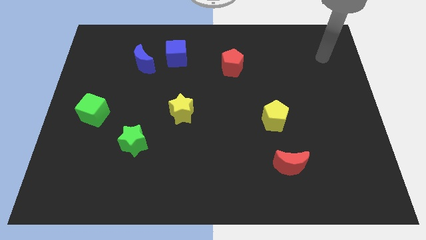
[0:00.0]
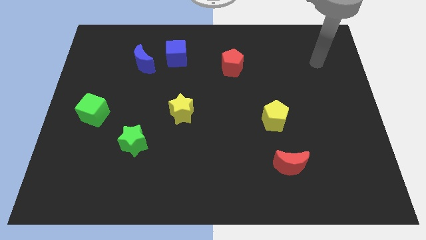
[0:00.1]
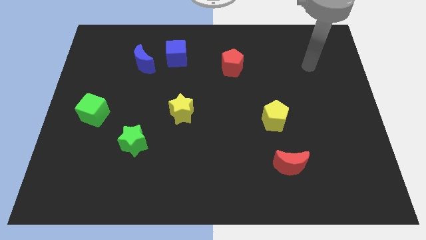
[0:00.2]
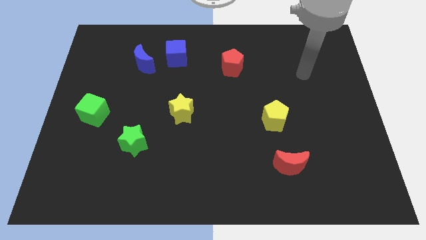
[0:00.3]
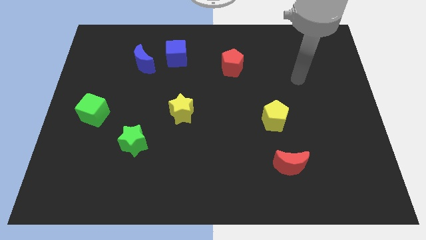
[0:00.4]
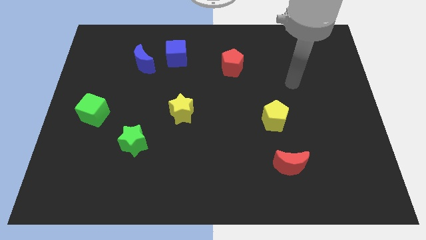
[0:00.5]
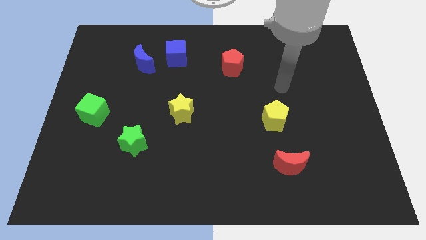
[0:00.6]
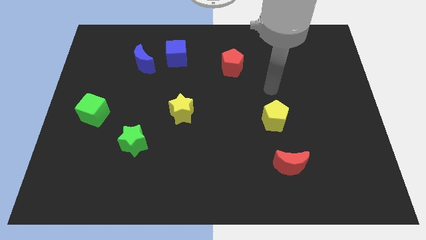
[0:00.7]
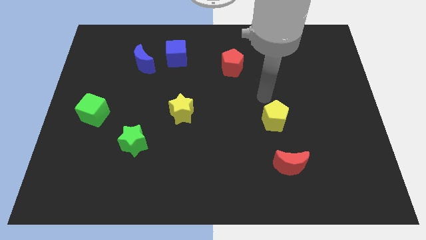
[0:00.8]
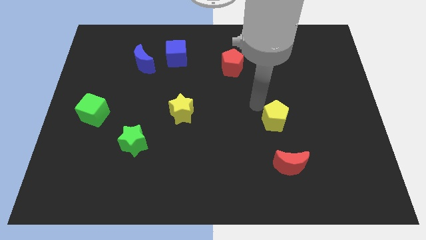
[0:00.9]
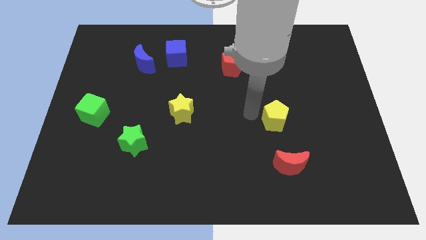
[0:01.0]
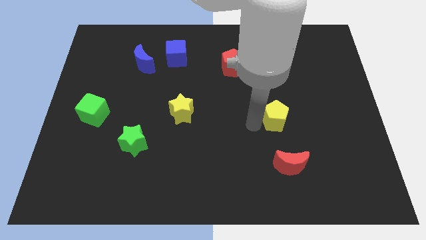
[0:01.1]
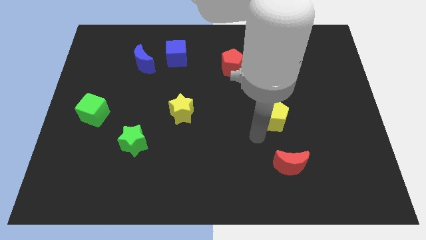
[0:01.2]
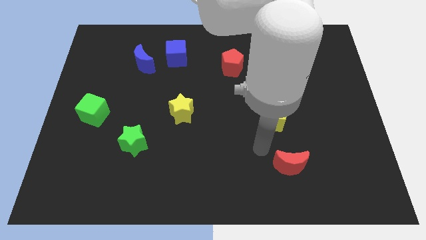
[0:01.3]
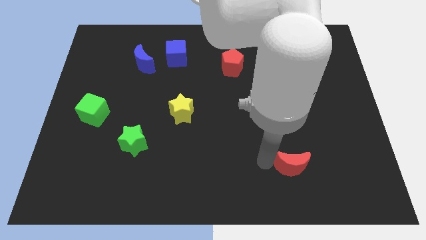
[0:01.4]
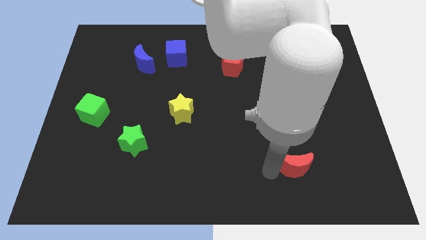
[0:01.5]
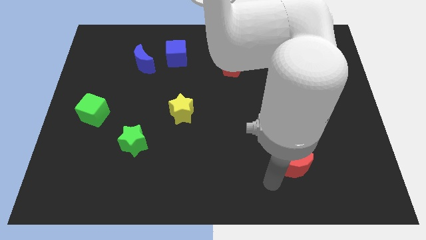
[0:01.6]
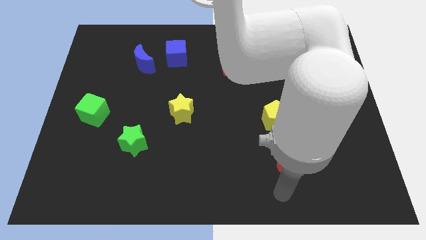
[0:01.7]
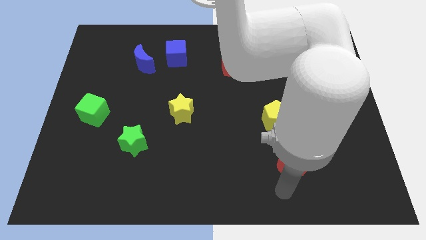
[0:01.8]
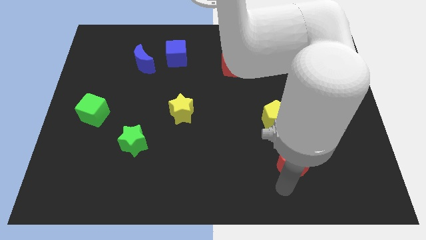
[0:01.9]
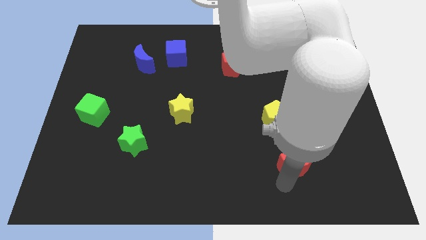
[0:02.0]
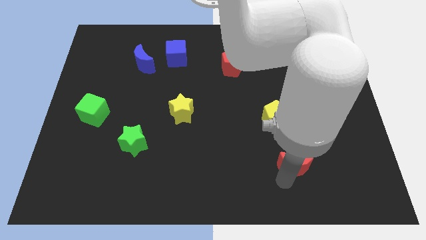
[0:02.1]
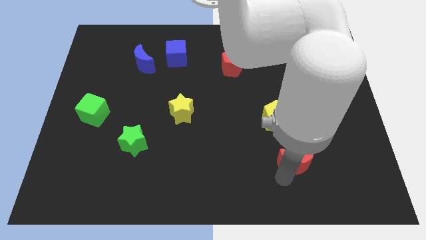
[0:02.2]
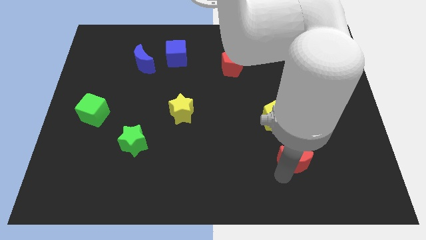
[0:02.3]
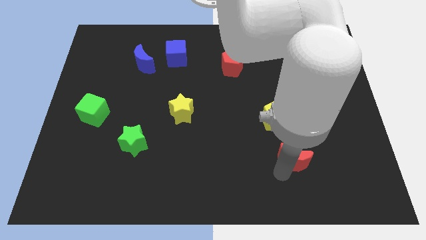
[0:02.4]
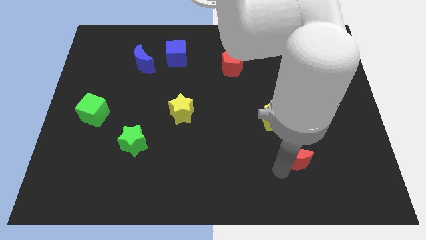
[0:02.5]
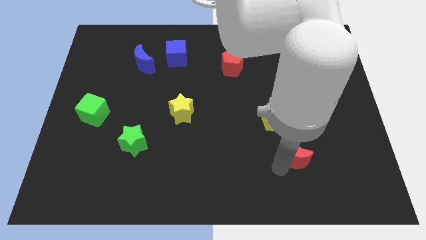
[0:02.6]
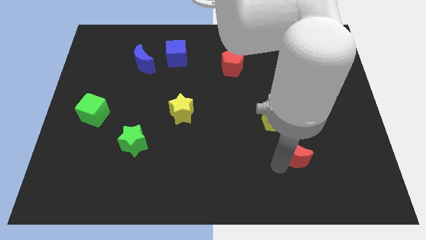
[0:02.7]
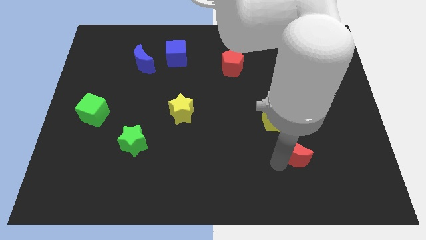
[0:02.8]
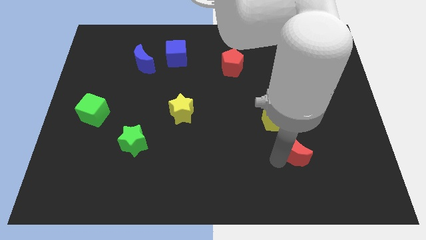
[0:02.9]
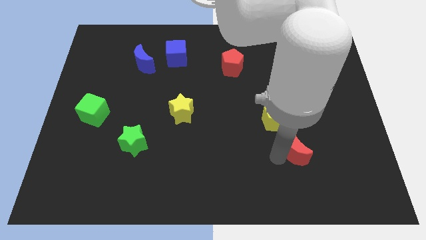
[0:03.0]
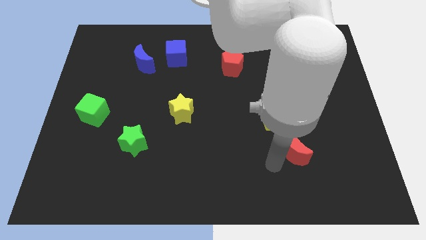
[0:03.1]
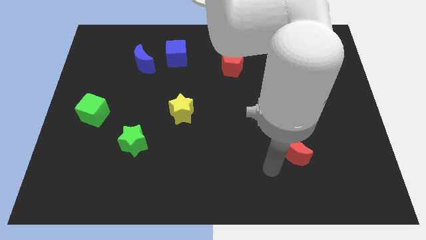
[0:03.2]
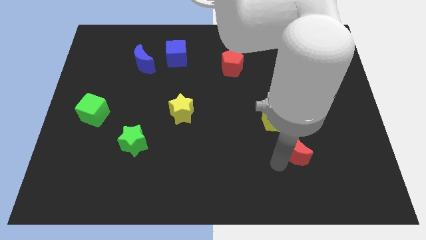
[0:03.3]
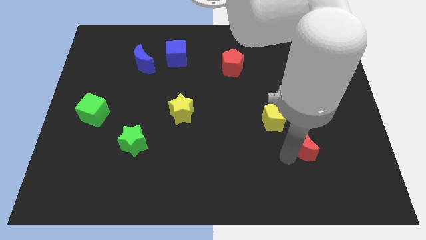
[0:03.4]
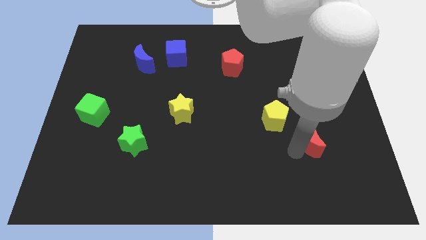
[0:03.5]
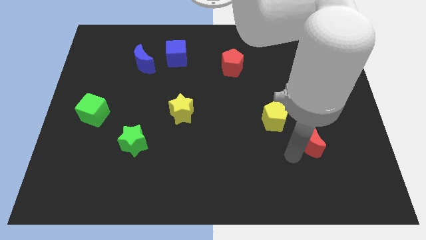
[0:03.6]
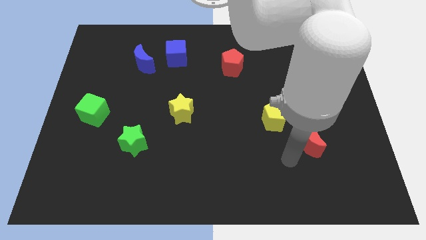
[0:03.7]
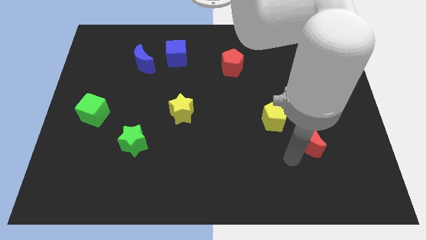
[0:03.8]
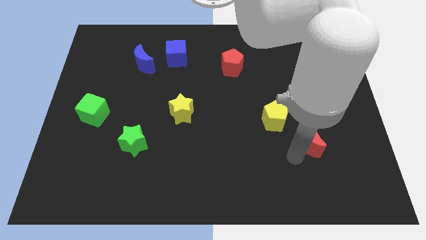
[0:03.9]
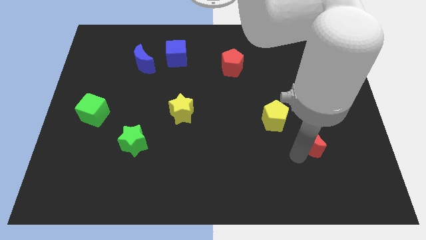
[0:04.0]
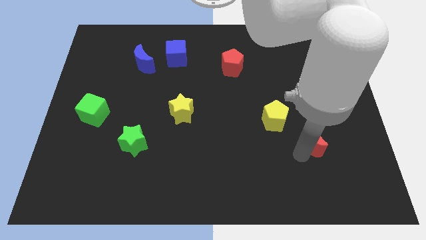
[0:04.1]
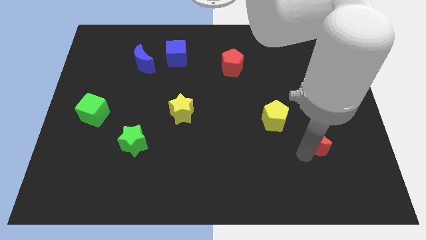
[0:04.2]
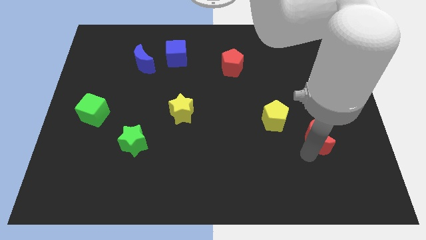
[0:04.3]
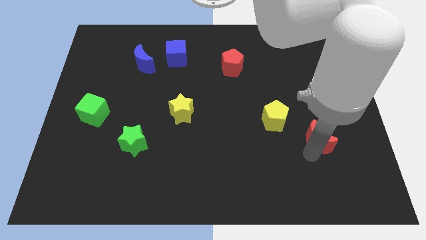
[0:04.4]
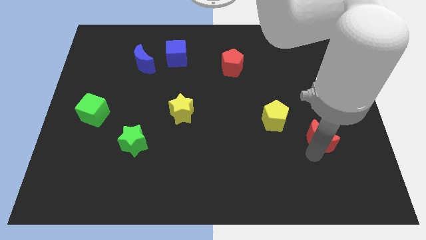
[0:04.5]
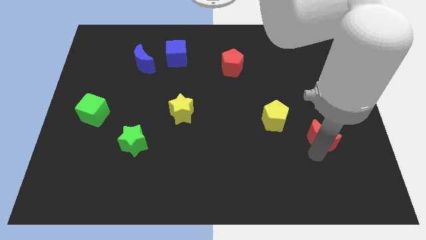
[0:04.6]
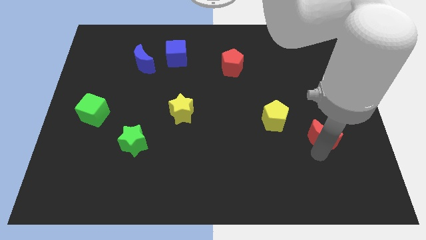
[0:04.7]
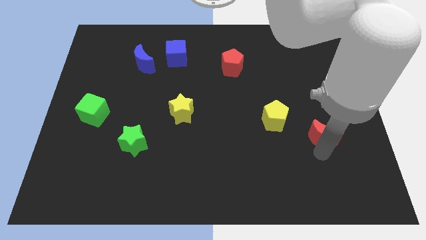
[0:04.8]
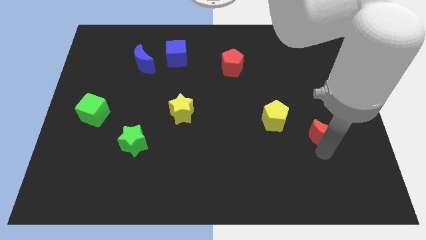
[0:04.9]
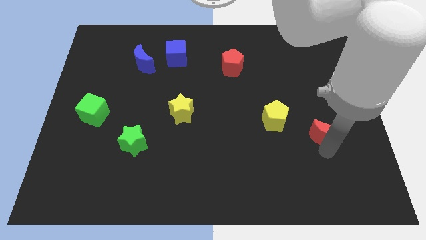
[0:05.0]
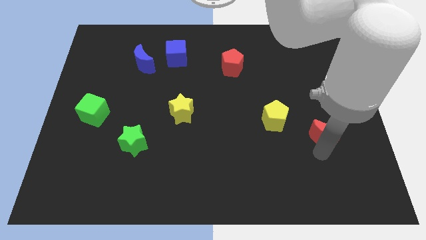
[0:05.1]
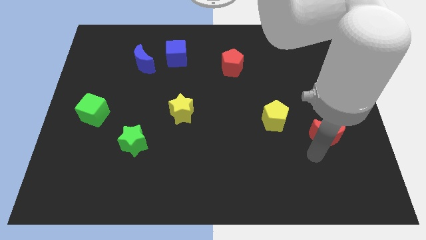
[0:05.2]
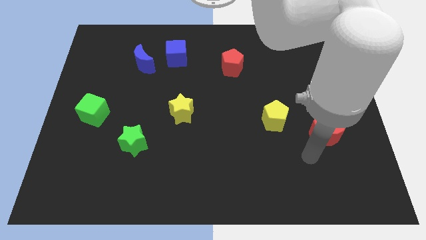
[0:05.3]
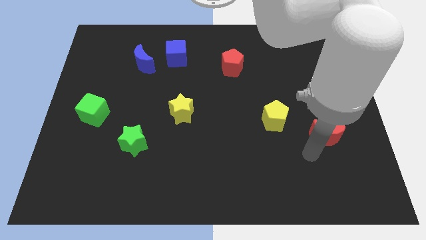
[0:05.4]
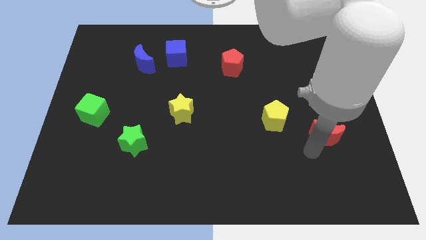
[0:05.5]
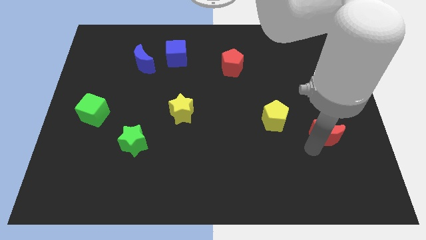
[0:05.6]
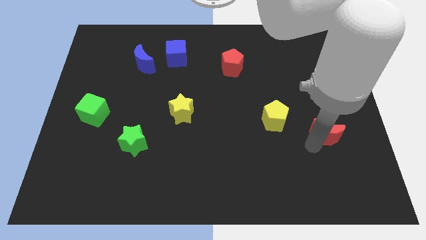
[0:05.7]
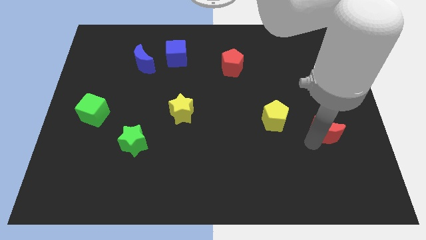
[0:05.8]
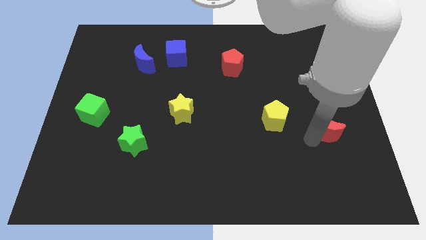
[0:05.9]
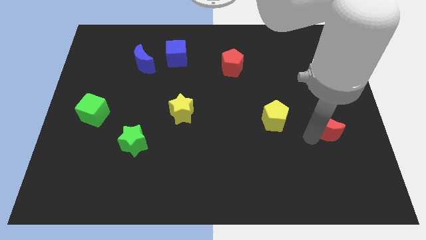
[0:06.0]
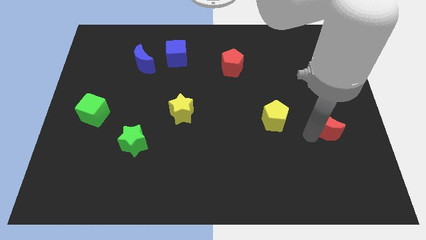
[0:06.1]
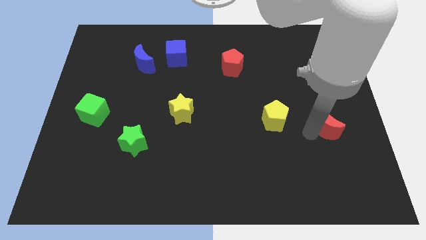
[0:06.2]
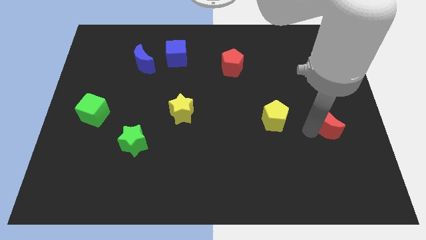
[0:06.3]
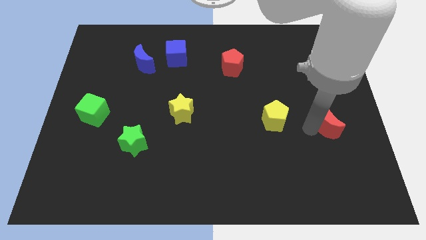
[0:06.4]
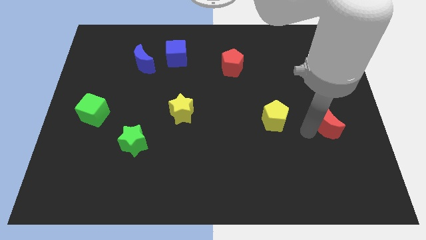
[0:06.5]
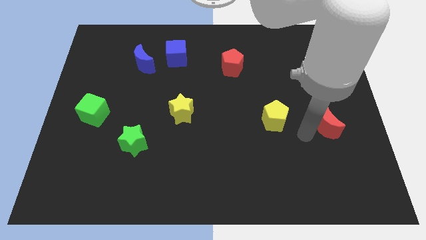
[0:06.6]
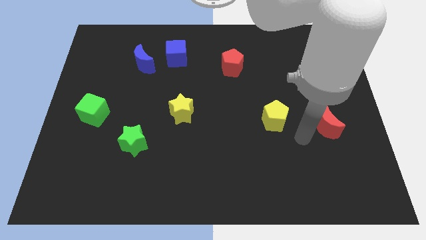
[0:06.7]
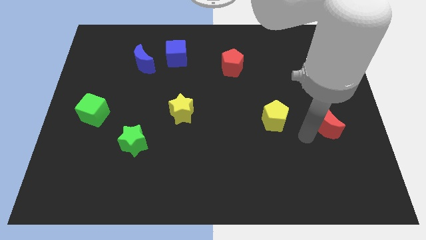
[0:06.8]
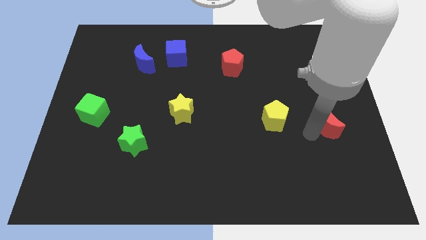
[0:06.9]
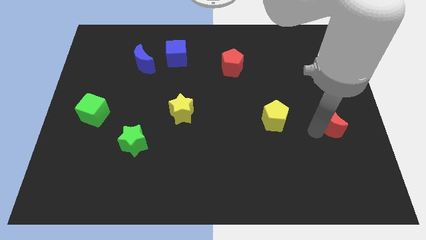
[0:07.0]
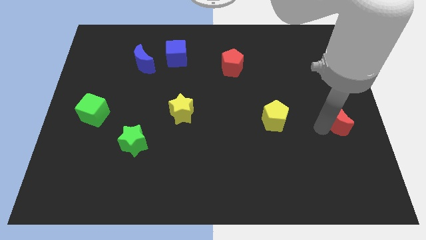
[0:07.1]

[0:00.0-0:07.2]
push the red moon to the right side

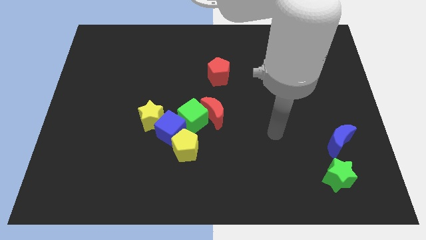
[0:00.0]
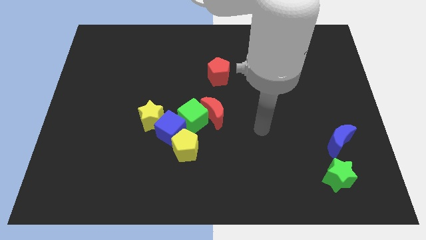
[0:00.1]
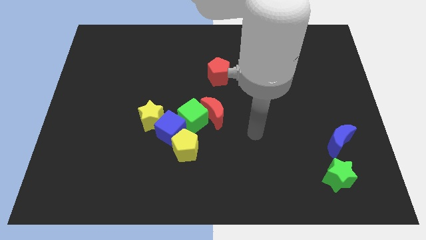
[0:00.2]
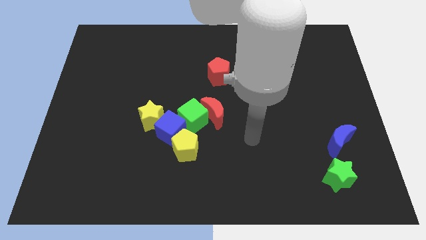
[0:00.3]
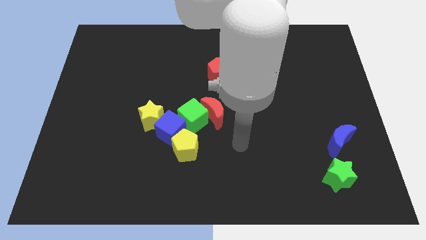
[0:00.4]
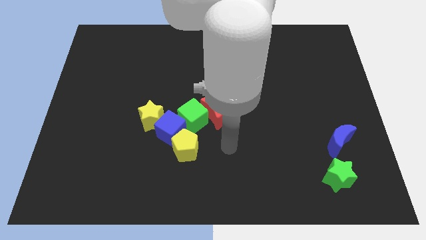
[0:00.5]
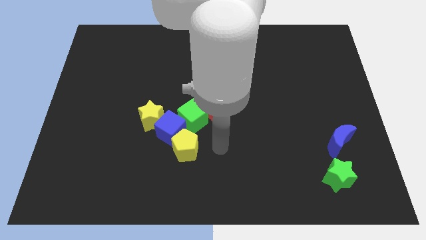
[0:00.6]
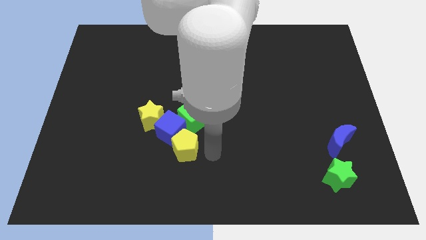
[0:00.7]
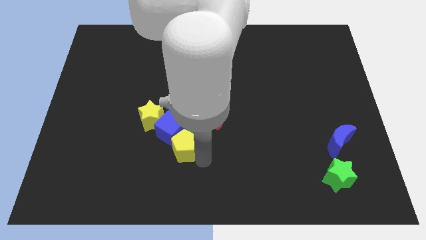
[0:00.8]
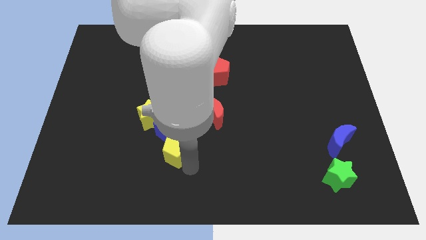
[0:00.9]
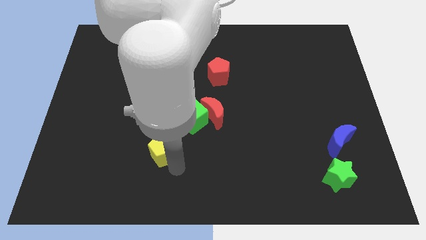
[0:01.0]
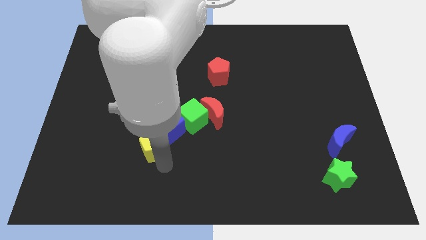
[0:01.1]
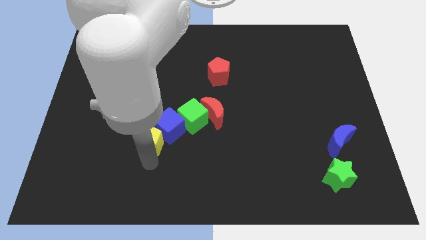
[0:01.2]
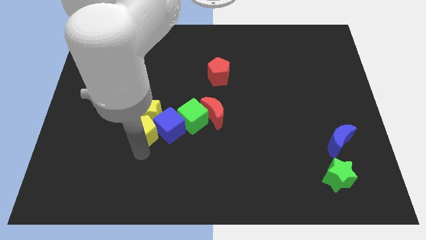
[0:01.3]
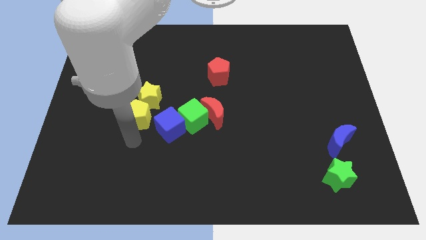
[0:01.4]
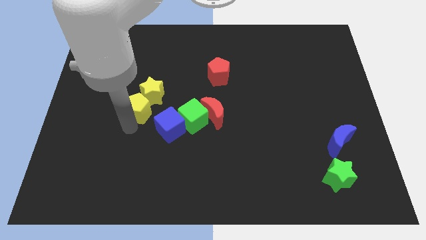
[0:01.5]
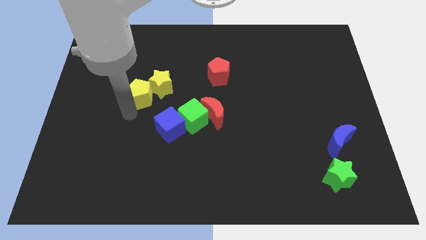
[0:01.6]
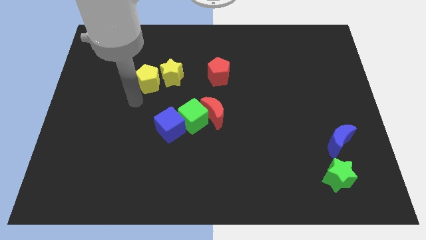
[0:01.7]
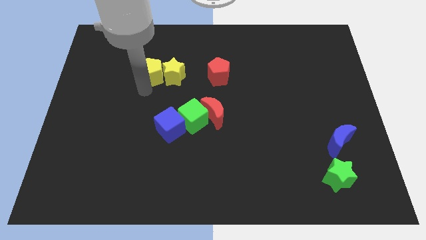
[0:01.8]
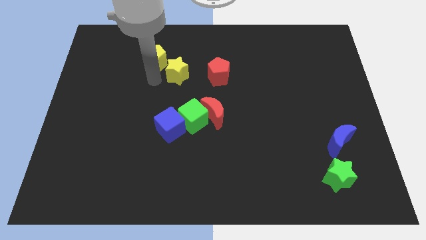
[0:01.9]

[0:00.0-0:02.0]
slide the yellow star to the middle
